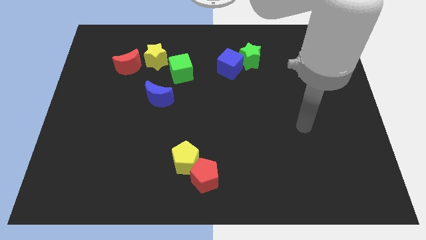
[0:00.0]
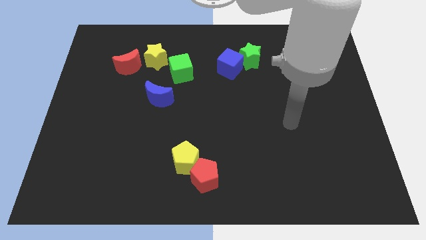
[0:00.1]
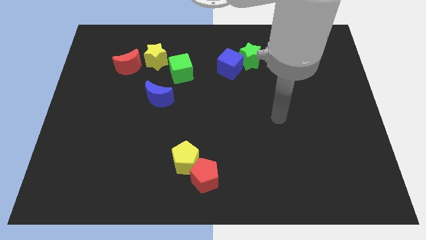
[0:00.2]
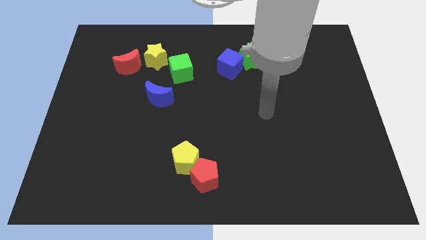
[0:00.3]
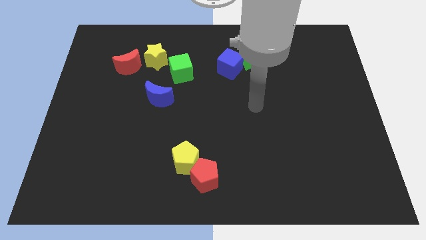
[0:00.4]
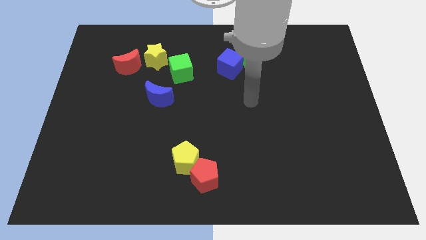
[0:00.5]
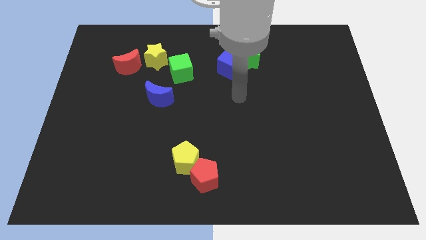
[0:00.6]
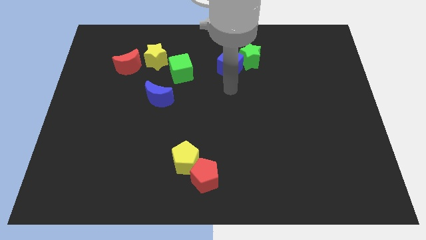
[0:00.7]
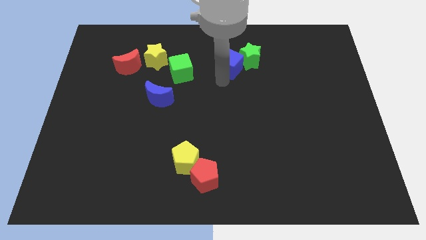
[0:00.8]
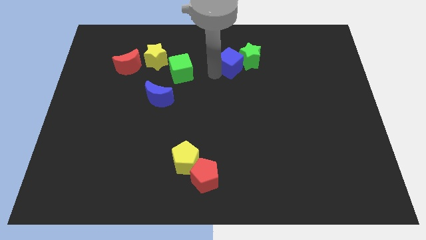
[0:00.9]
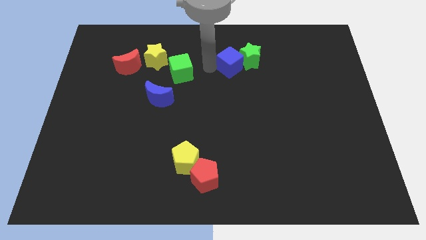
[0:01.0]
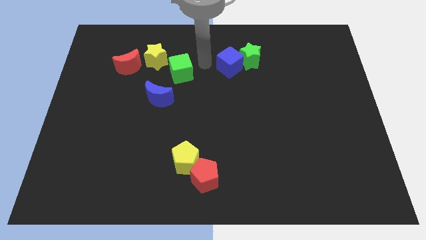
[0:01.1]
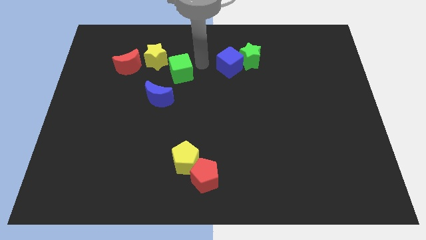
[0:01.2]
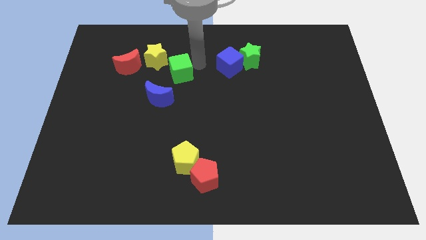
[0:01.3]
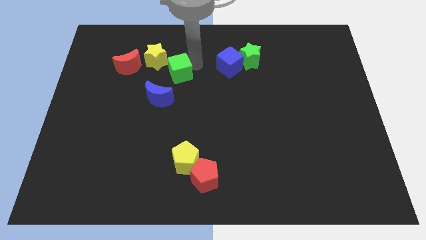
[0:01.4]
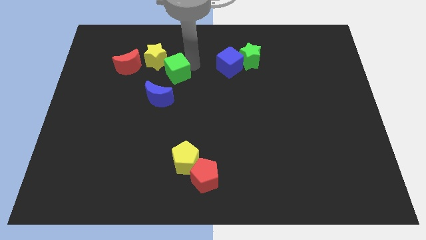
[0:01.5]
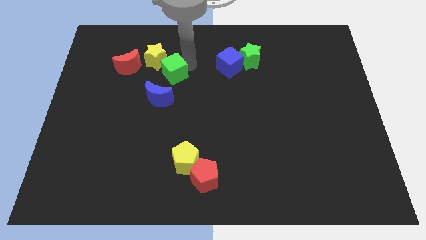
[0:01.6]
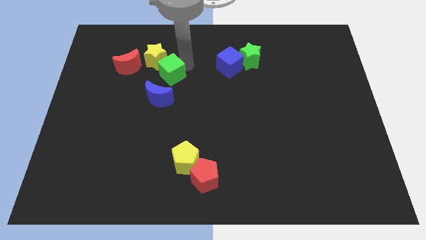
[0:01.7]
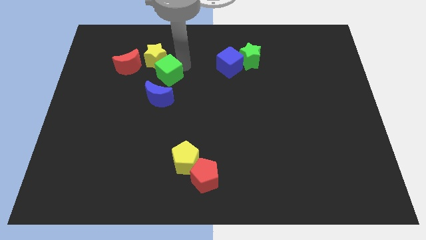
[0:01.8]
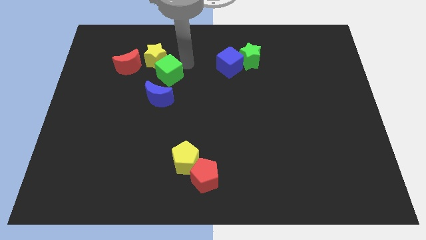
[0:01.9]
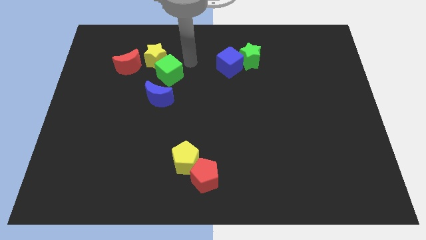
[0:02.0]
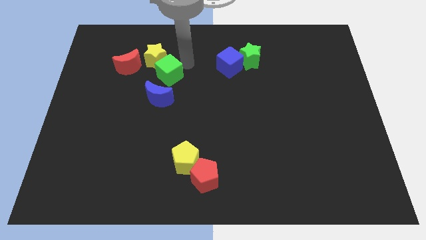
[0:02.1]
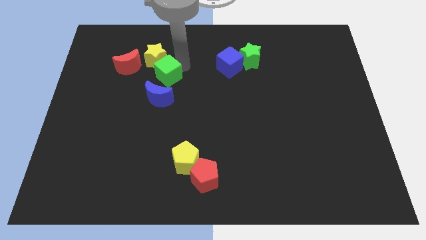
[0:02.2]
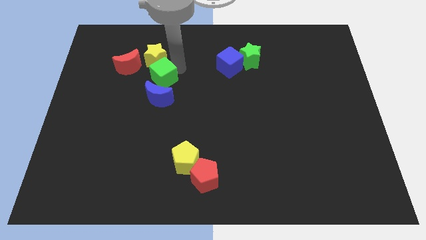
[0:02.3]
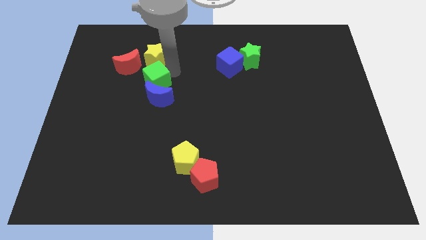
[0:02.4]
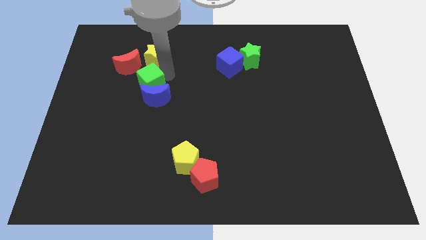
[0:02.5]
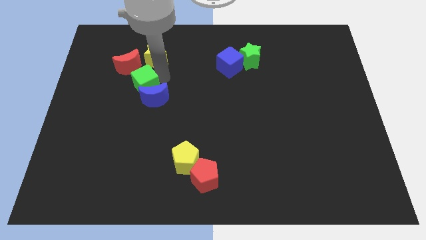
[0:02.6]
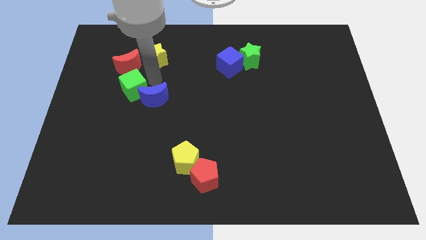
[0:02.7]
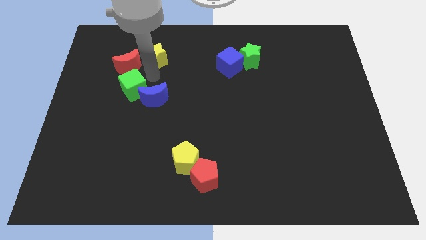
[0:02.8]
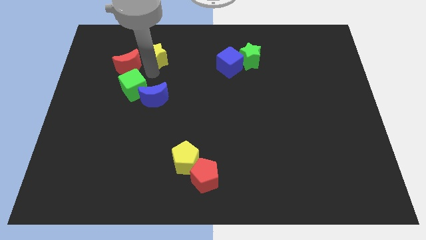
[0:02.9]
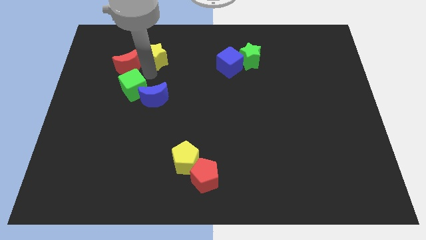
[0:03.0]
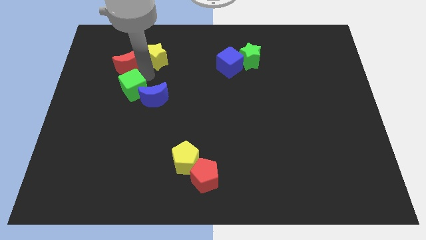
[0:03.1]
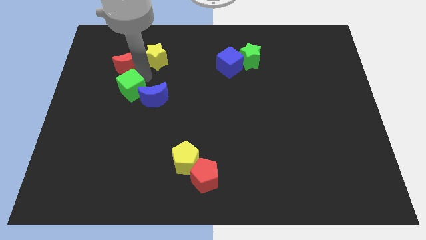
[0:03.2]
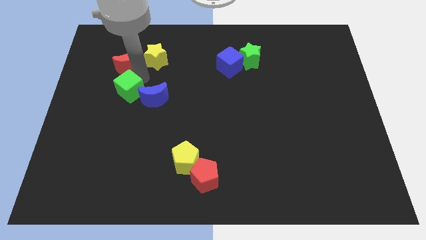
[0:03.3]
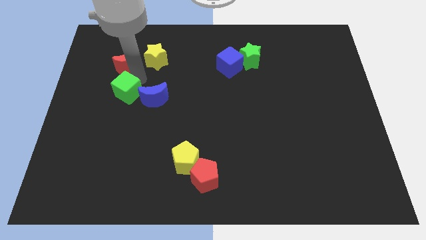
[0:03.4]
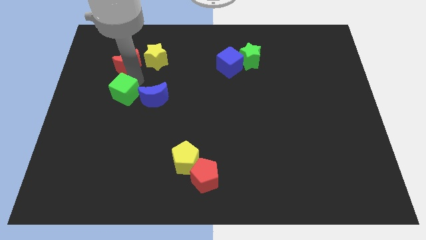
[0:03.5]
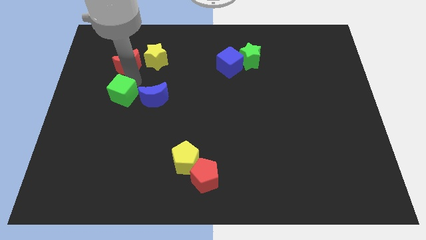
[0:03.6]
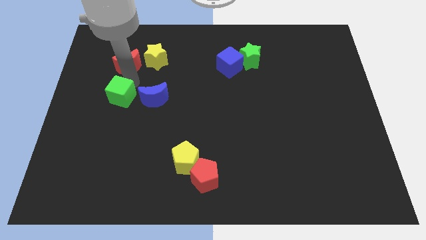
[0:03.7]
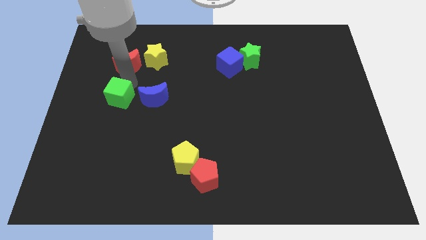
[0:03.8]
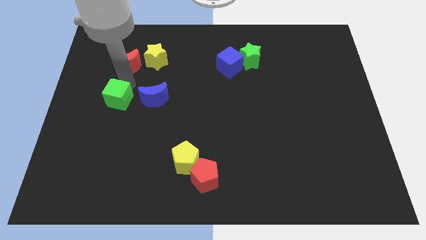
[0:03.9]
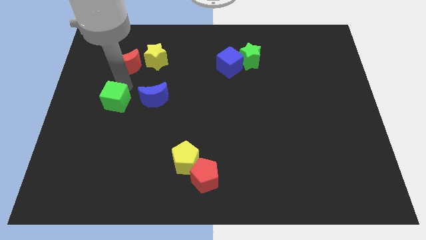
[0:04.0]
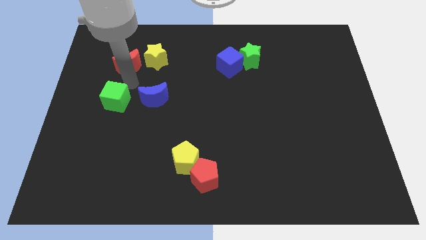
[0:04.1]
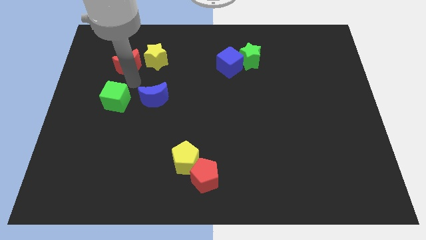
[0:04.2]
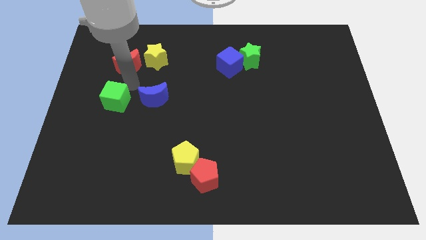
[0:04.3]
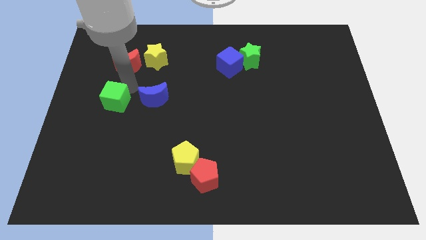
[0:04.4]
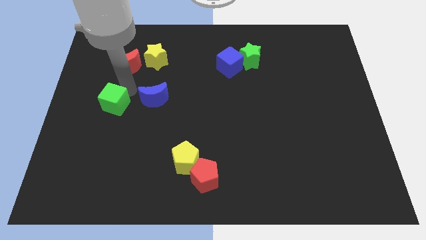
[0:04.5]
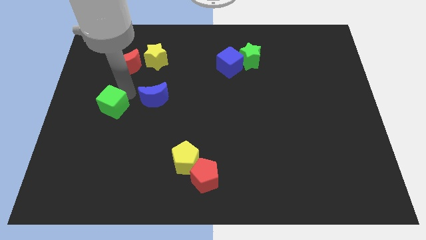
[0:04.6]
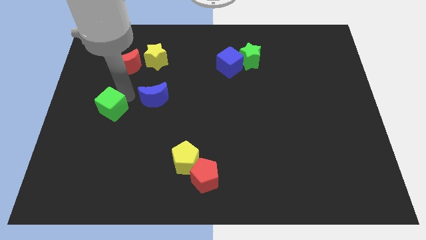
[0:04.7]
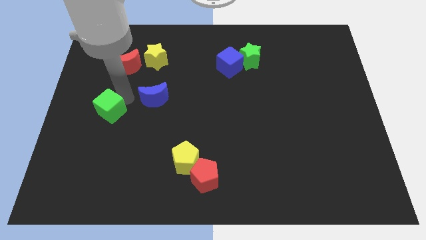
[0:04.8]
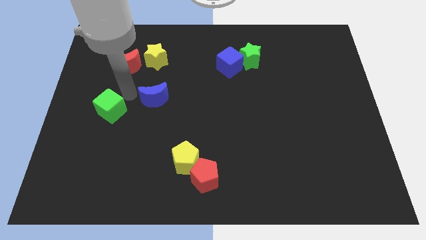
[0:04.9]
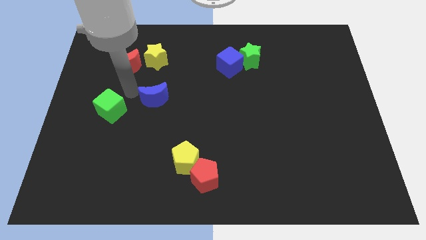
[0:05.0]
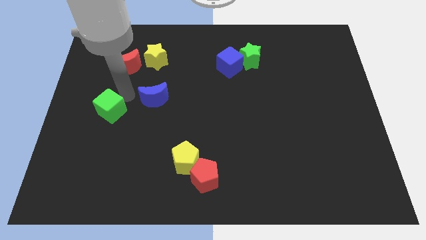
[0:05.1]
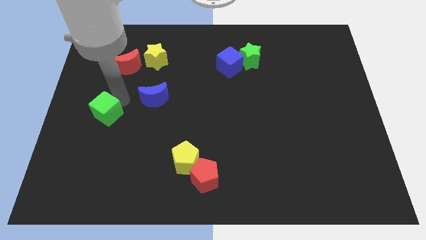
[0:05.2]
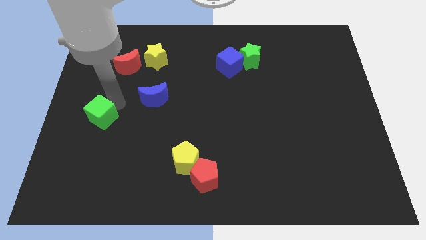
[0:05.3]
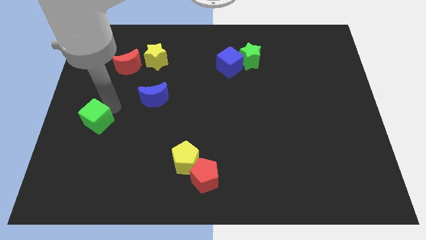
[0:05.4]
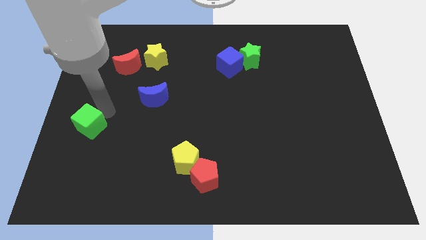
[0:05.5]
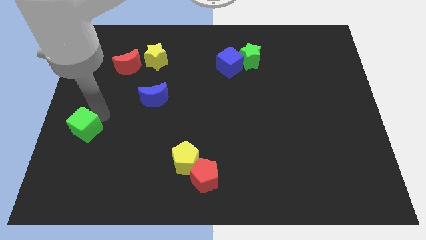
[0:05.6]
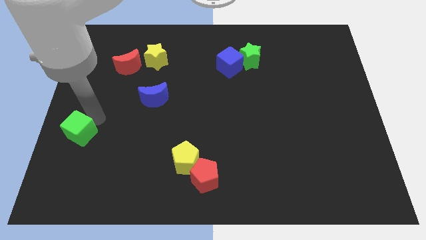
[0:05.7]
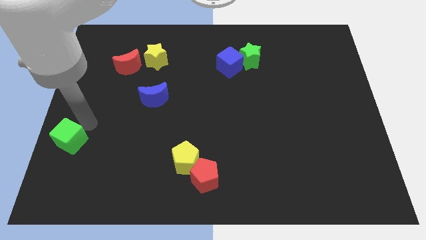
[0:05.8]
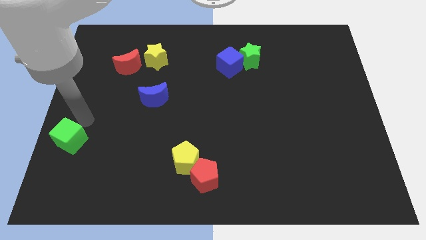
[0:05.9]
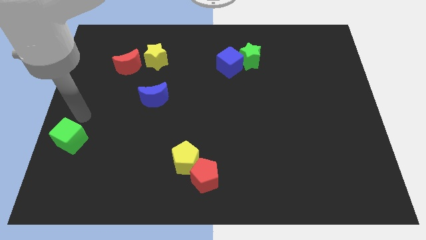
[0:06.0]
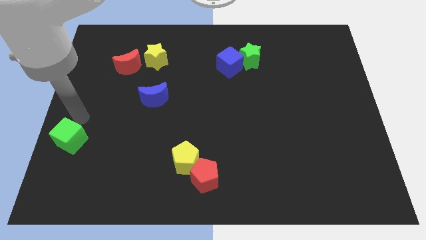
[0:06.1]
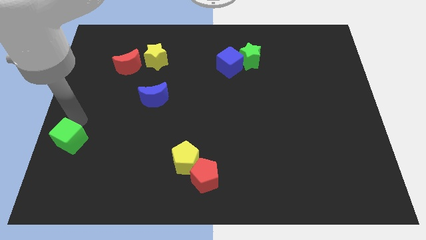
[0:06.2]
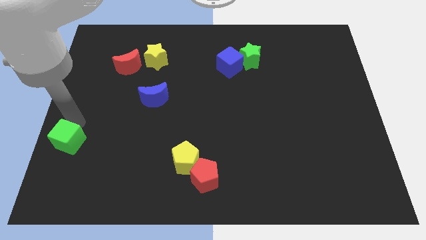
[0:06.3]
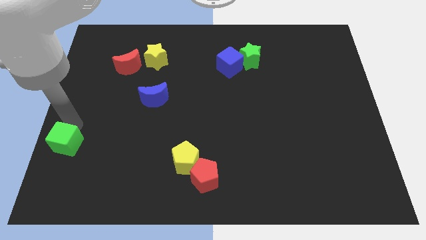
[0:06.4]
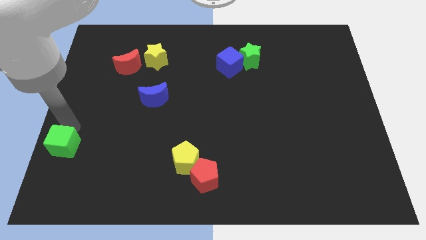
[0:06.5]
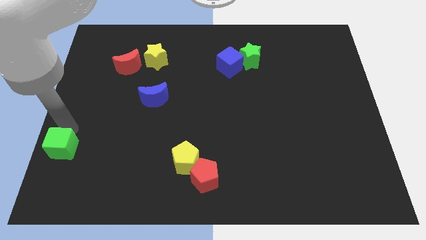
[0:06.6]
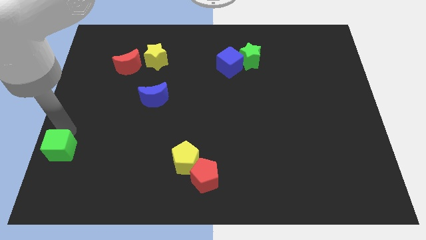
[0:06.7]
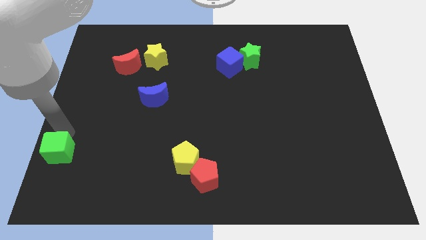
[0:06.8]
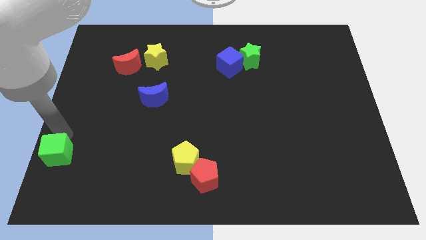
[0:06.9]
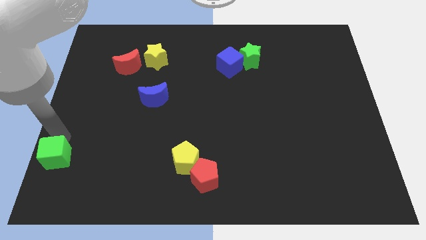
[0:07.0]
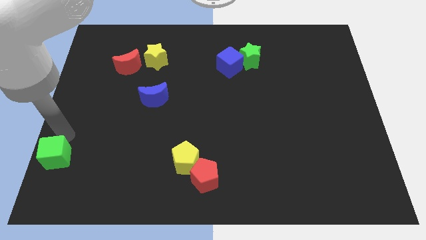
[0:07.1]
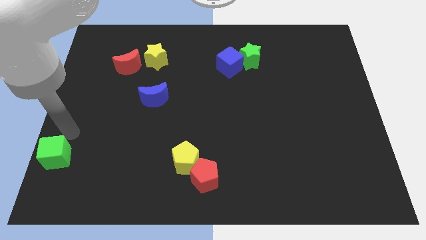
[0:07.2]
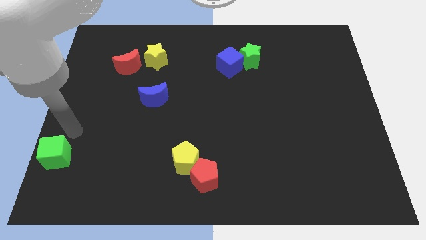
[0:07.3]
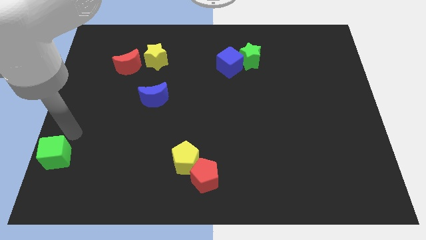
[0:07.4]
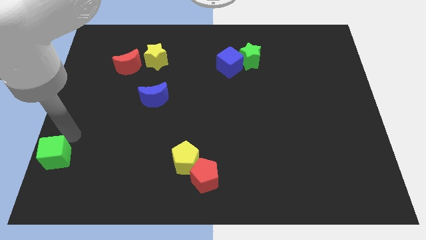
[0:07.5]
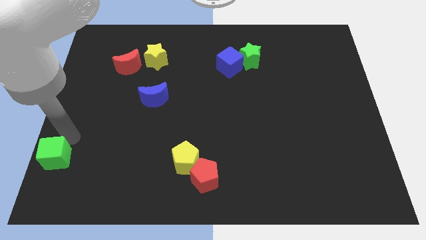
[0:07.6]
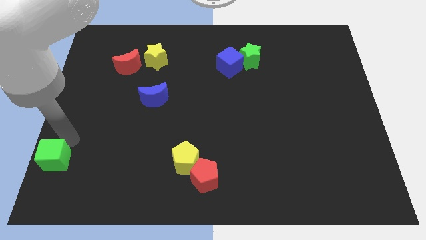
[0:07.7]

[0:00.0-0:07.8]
put the green cube to the bottom left

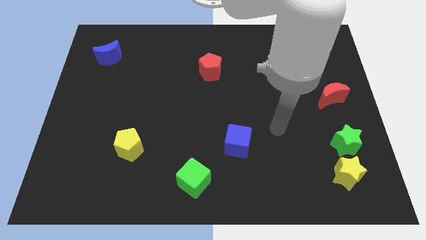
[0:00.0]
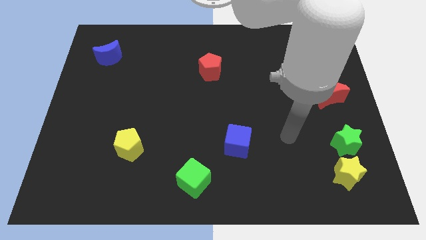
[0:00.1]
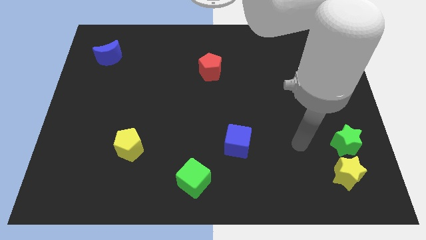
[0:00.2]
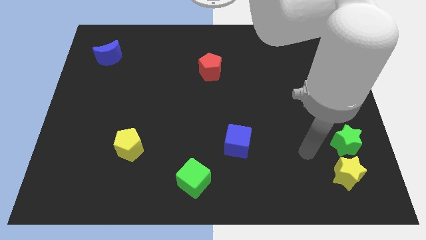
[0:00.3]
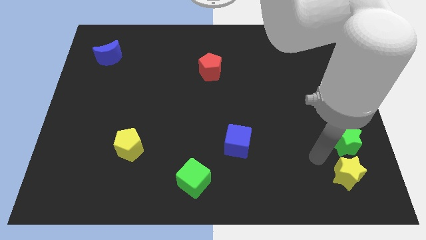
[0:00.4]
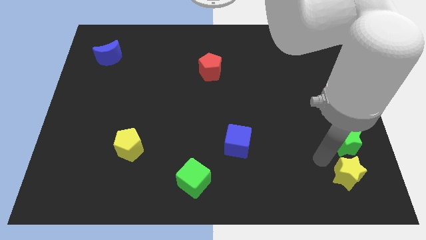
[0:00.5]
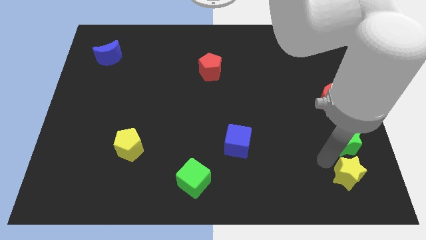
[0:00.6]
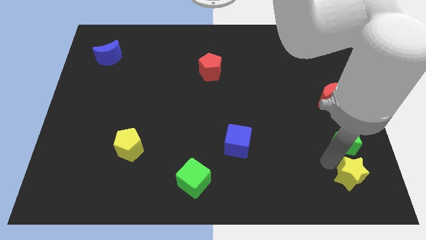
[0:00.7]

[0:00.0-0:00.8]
put the yellow star to the bottom right corner
